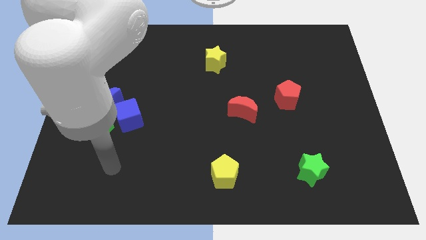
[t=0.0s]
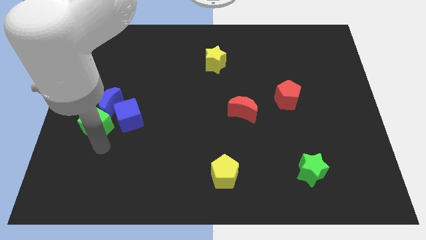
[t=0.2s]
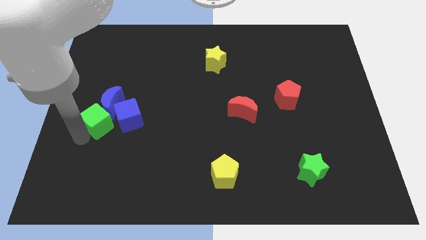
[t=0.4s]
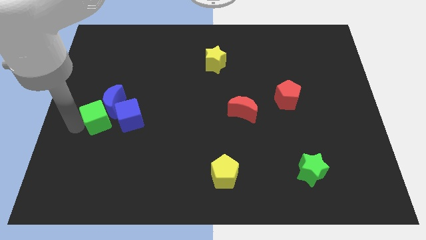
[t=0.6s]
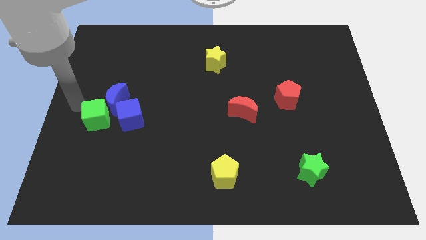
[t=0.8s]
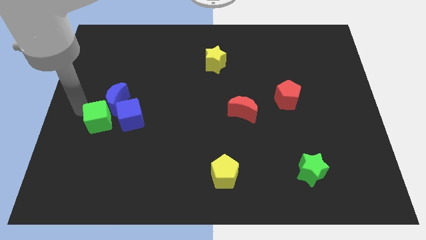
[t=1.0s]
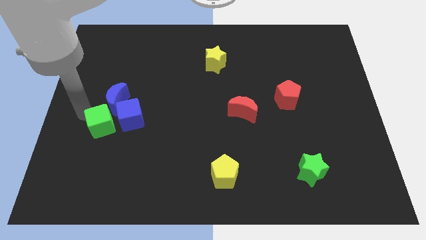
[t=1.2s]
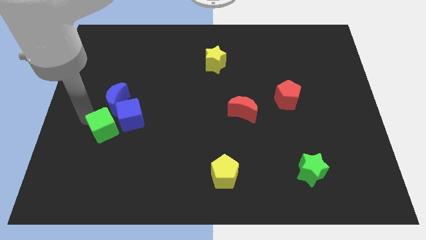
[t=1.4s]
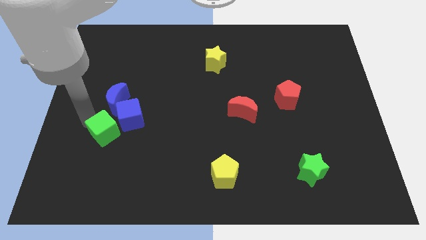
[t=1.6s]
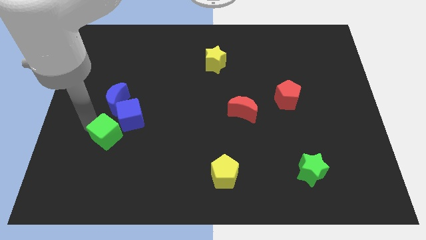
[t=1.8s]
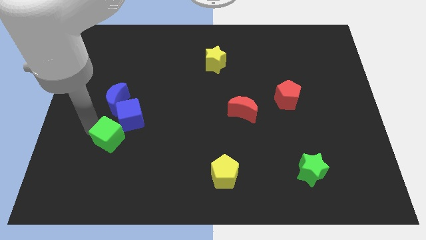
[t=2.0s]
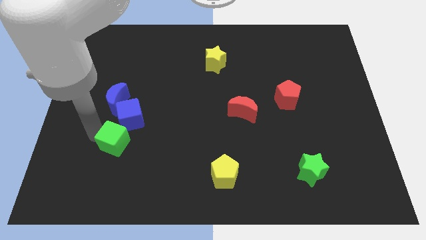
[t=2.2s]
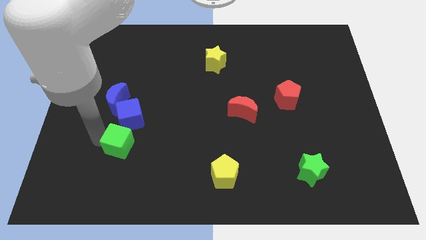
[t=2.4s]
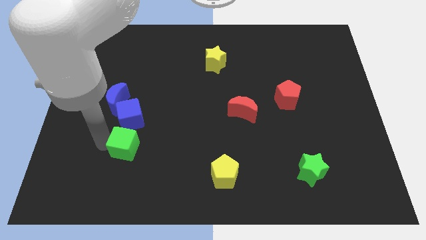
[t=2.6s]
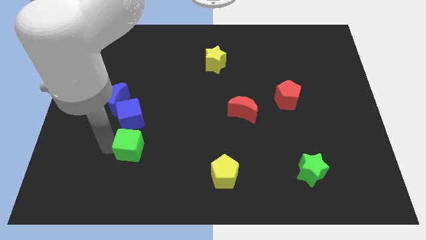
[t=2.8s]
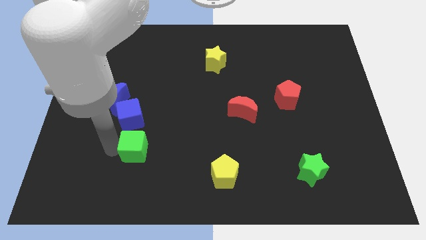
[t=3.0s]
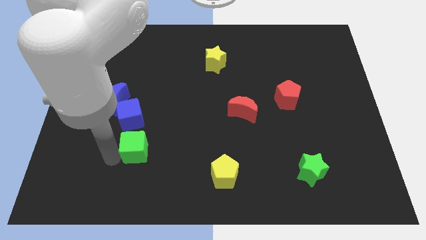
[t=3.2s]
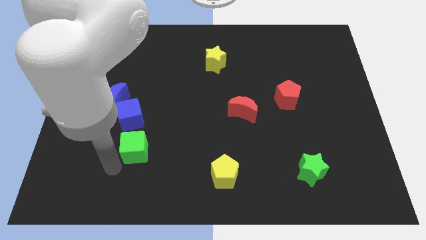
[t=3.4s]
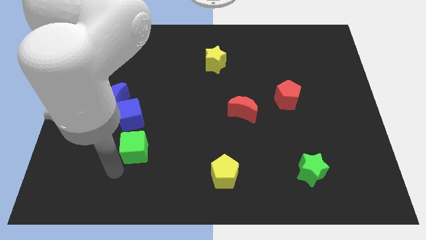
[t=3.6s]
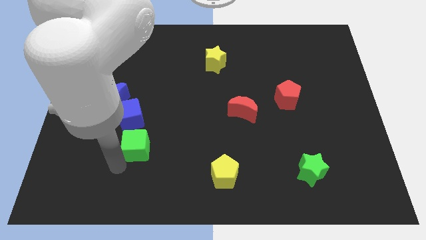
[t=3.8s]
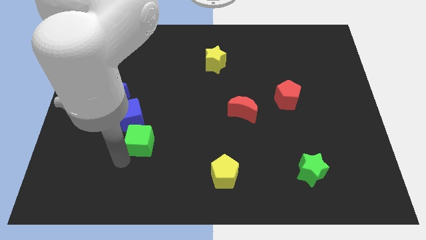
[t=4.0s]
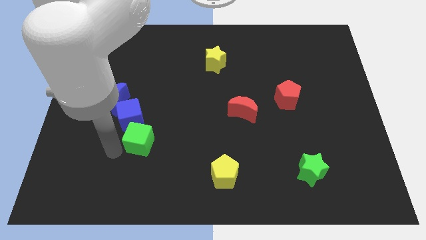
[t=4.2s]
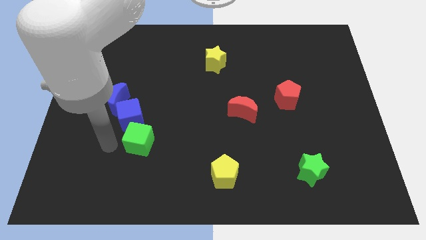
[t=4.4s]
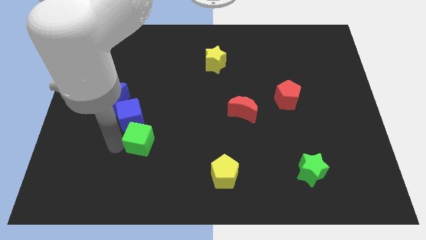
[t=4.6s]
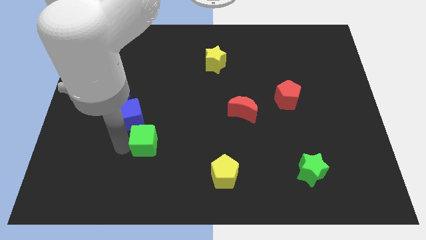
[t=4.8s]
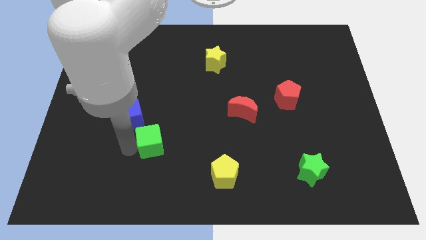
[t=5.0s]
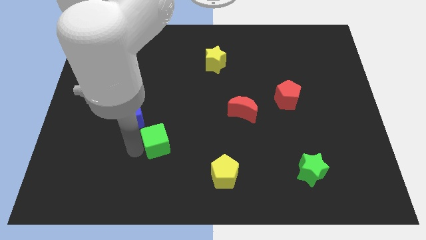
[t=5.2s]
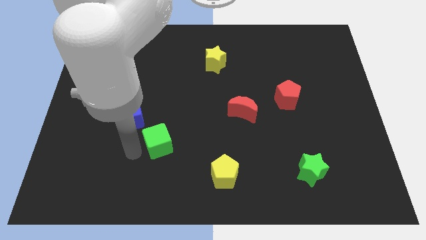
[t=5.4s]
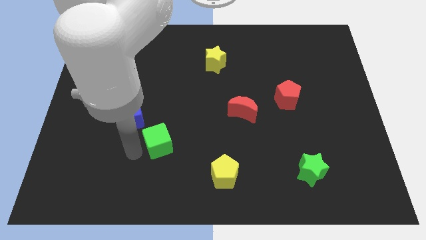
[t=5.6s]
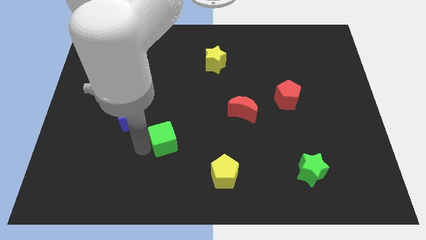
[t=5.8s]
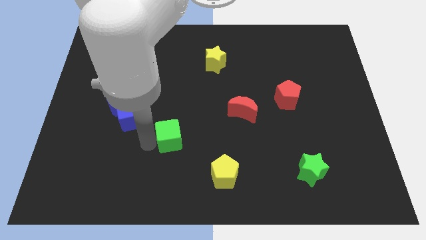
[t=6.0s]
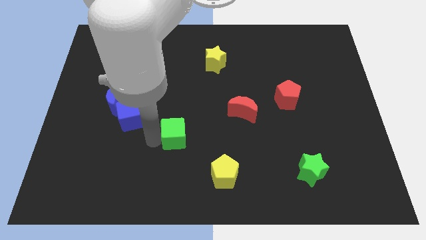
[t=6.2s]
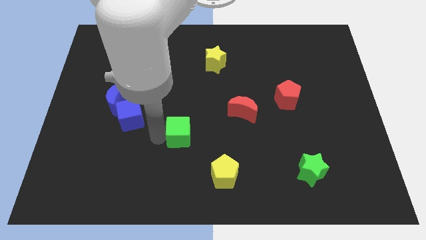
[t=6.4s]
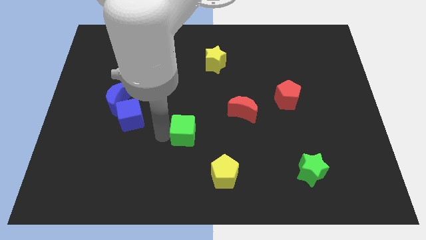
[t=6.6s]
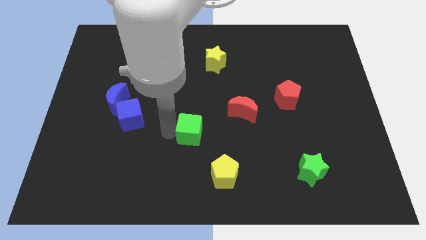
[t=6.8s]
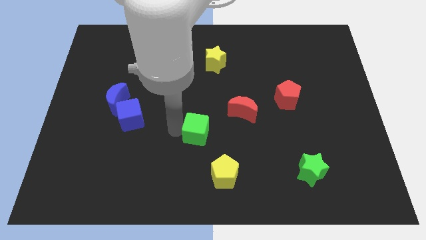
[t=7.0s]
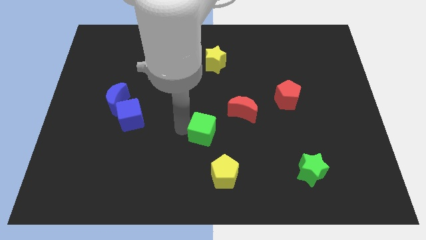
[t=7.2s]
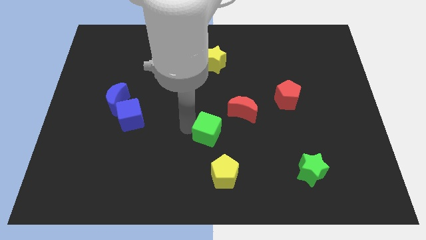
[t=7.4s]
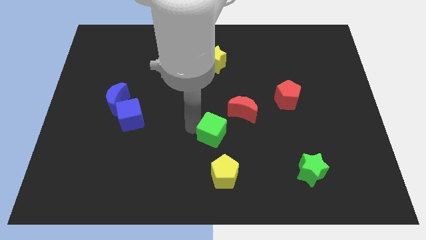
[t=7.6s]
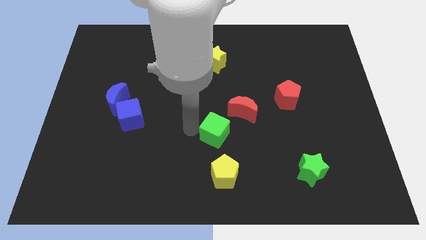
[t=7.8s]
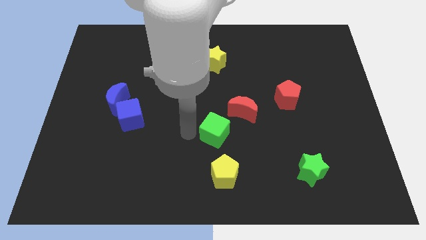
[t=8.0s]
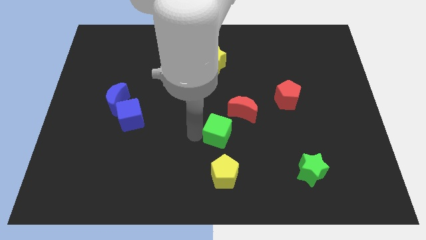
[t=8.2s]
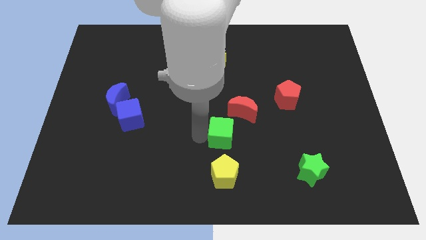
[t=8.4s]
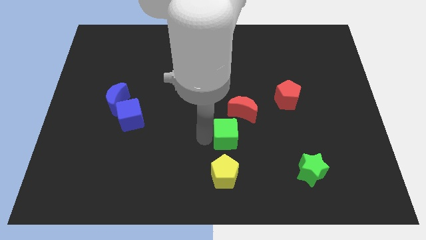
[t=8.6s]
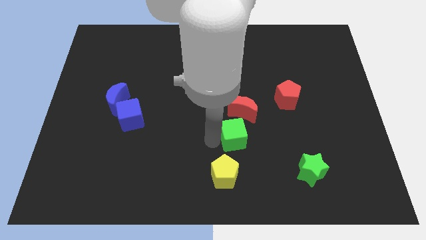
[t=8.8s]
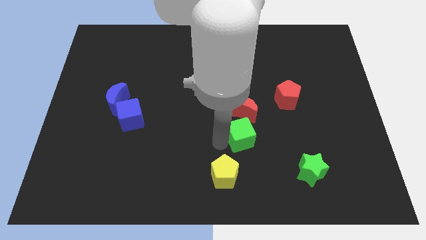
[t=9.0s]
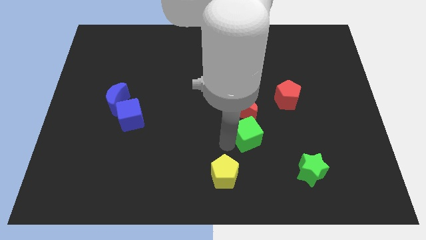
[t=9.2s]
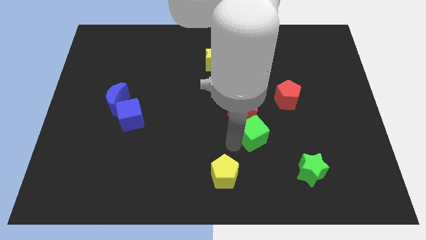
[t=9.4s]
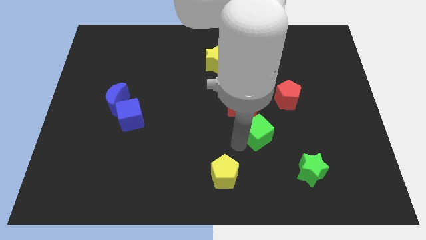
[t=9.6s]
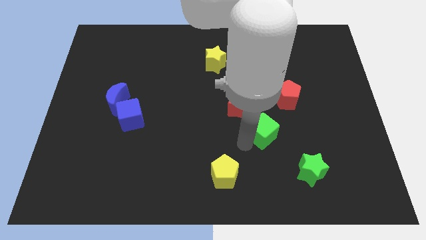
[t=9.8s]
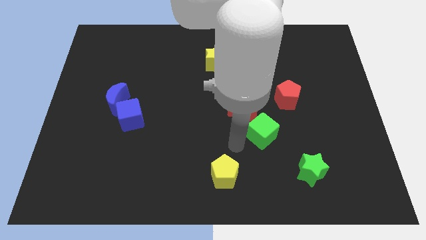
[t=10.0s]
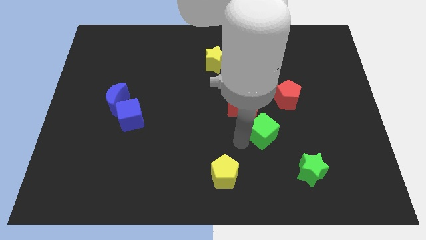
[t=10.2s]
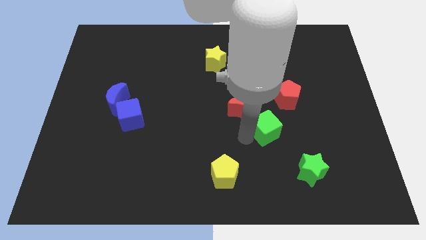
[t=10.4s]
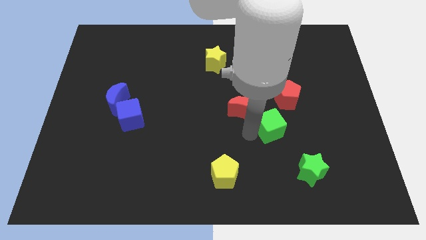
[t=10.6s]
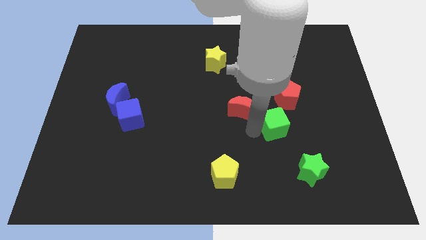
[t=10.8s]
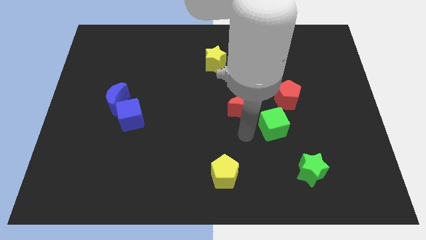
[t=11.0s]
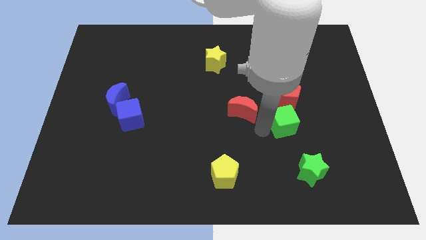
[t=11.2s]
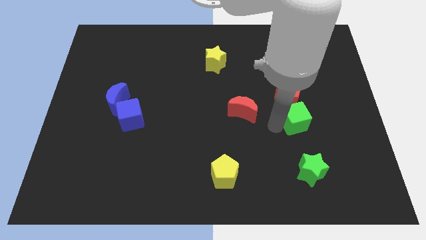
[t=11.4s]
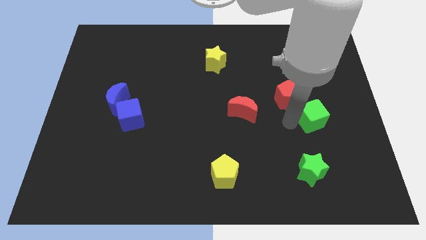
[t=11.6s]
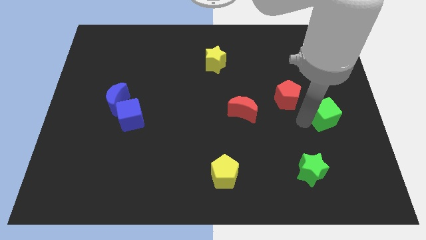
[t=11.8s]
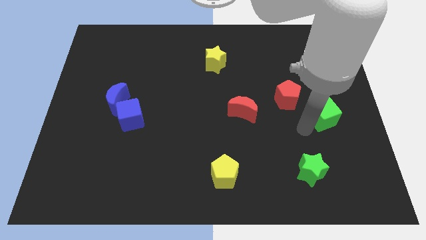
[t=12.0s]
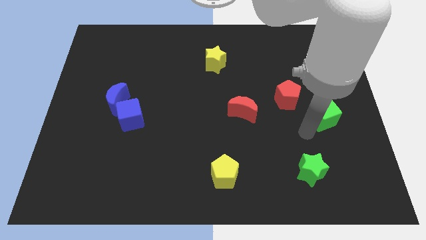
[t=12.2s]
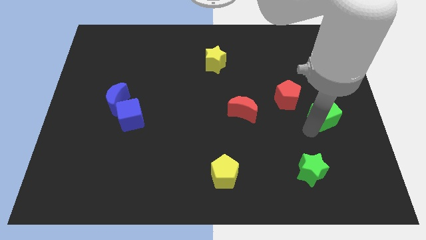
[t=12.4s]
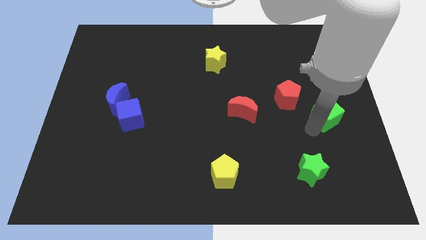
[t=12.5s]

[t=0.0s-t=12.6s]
move the green cube to the center right
